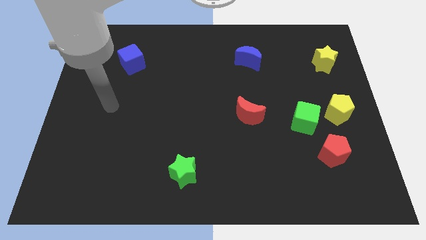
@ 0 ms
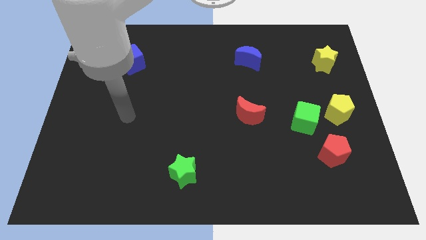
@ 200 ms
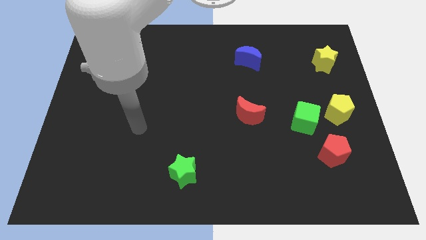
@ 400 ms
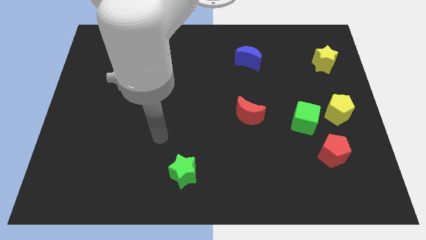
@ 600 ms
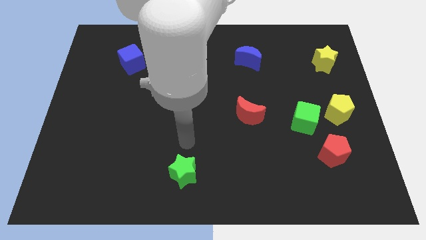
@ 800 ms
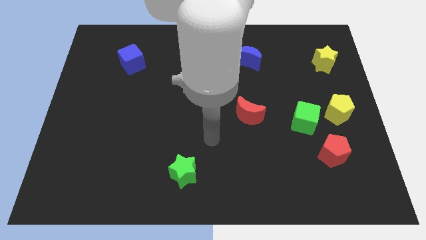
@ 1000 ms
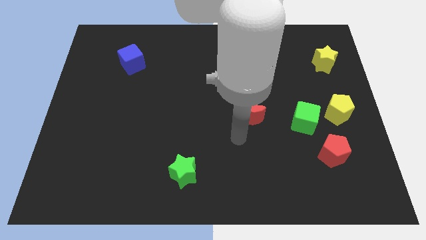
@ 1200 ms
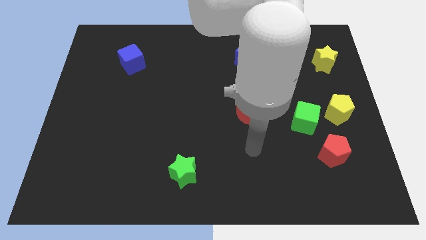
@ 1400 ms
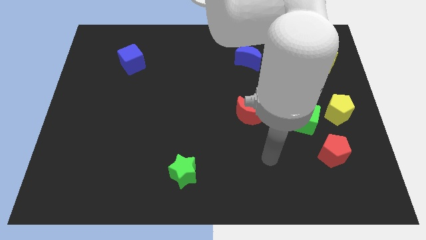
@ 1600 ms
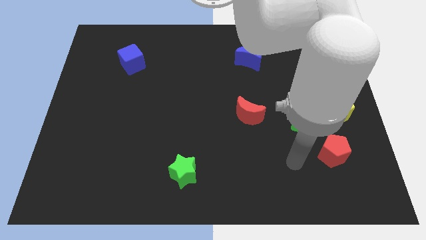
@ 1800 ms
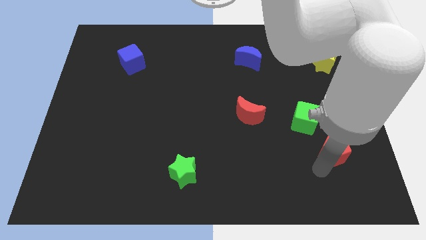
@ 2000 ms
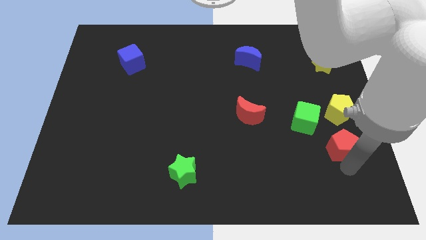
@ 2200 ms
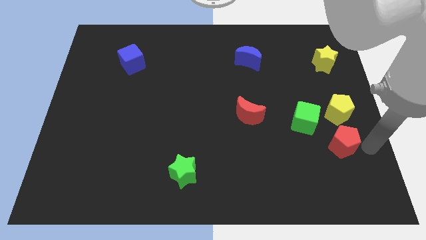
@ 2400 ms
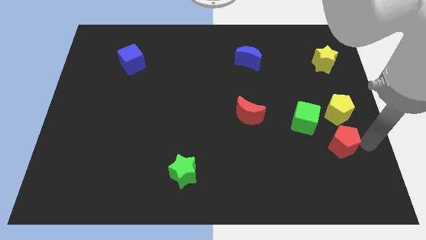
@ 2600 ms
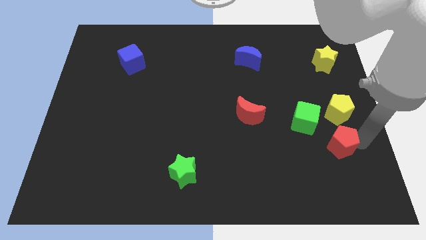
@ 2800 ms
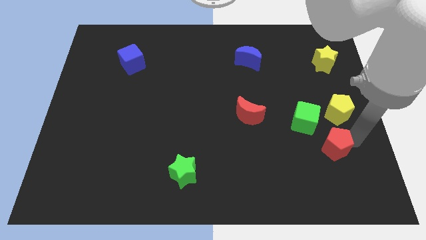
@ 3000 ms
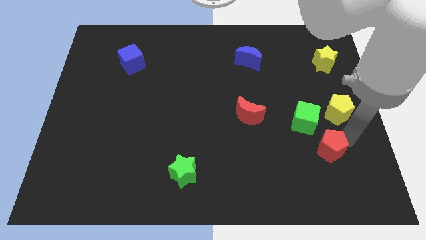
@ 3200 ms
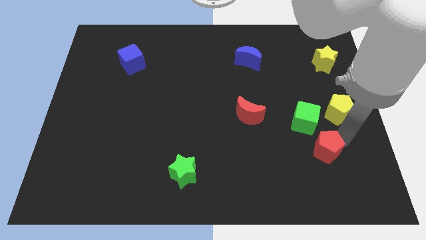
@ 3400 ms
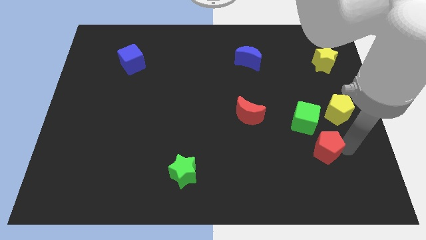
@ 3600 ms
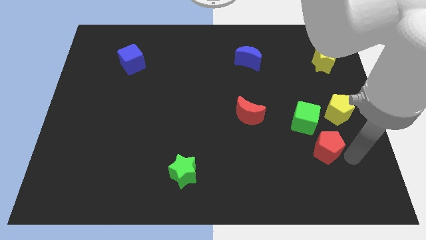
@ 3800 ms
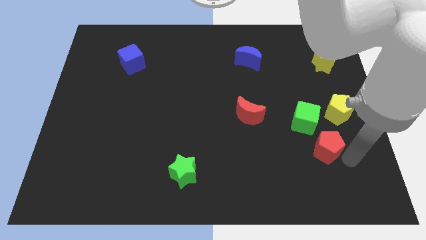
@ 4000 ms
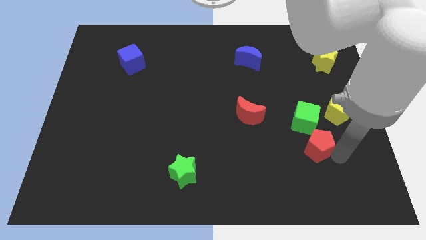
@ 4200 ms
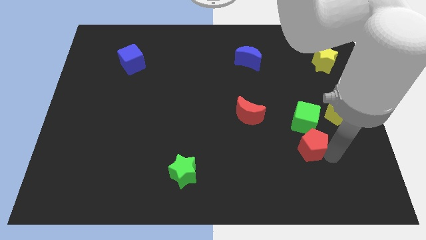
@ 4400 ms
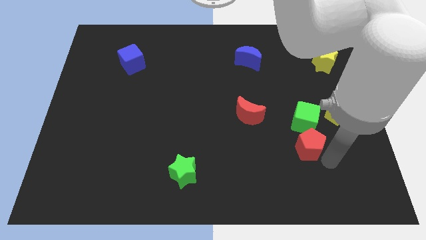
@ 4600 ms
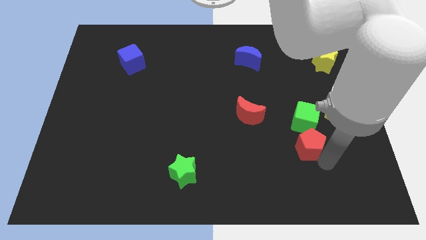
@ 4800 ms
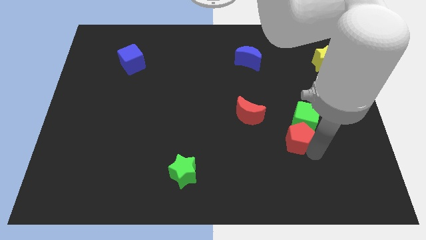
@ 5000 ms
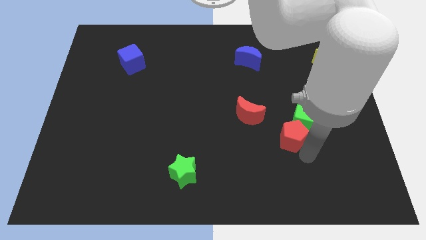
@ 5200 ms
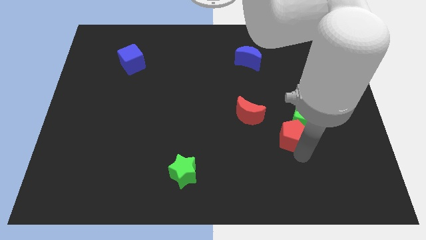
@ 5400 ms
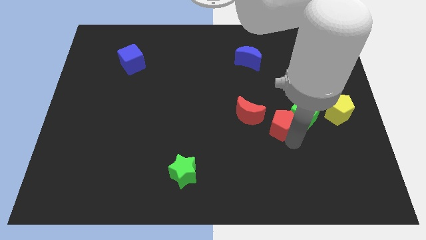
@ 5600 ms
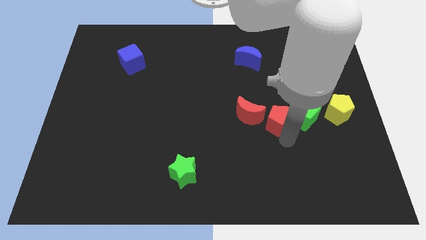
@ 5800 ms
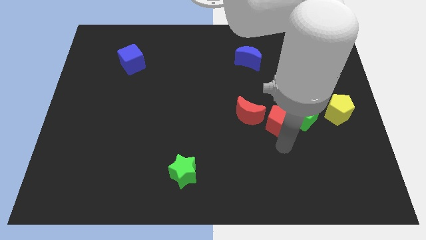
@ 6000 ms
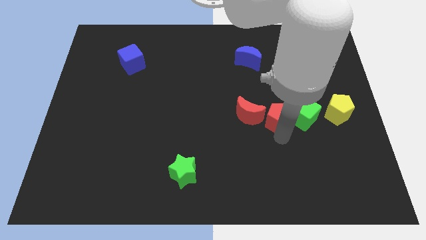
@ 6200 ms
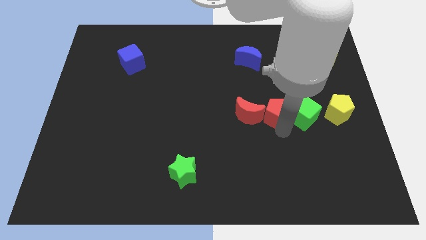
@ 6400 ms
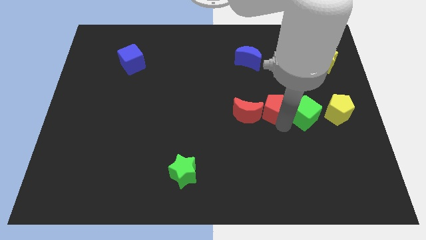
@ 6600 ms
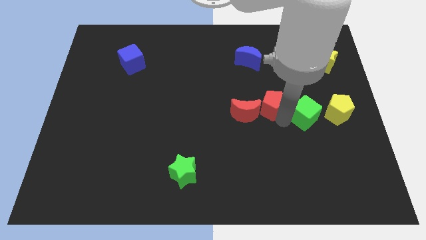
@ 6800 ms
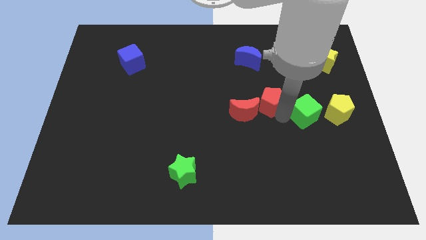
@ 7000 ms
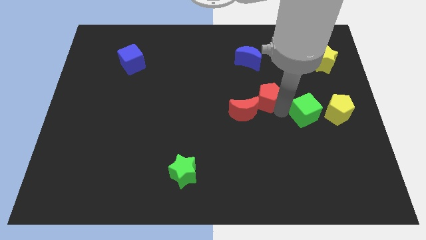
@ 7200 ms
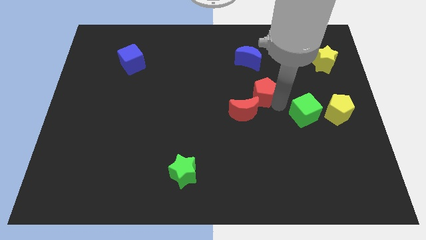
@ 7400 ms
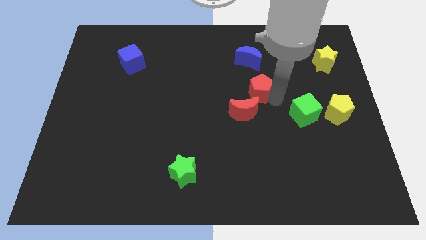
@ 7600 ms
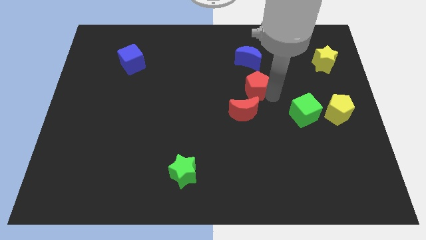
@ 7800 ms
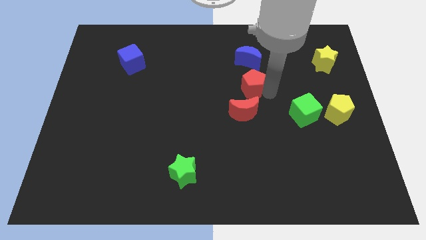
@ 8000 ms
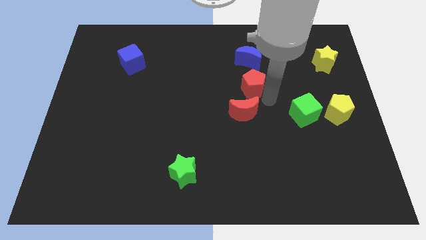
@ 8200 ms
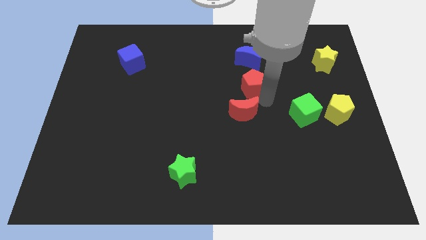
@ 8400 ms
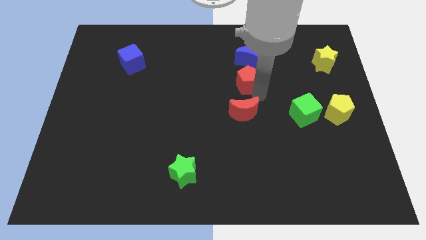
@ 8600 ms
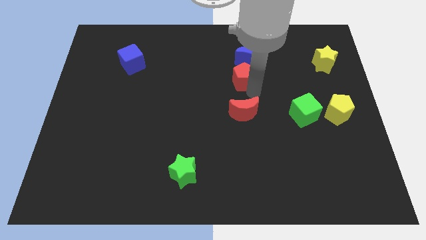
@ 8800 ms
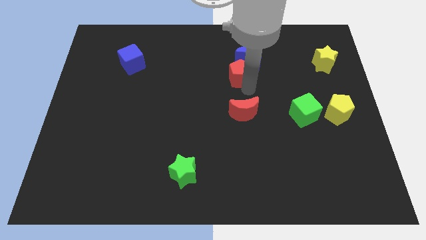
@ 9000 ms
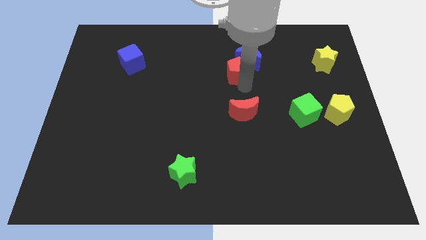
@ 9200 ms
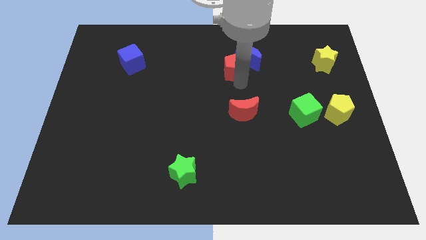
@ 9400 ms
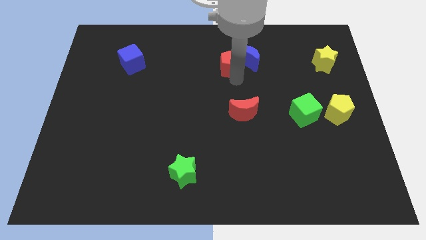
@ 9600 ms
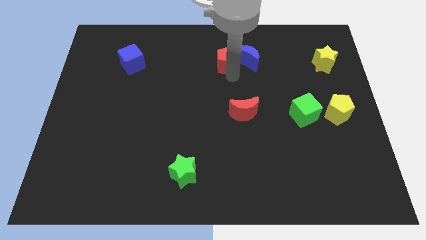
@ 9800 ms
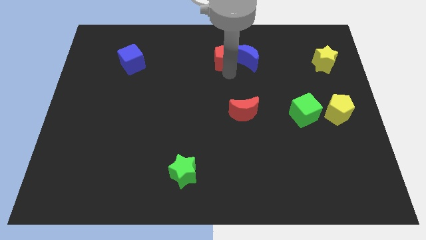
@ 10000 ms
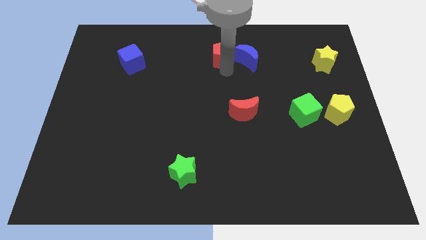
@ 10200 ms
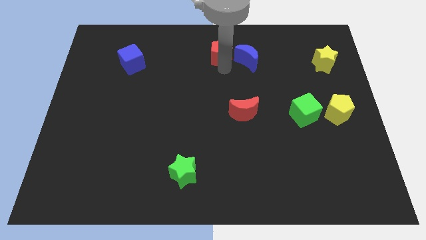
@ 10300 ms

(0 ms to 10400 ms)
push the red pentagon to the towards your base

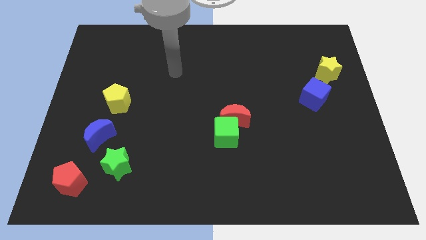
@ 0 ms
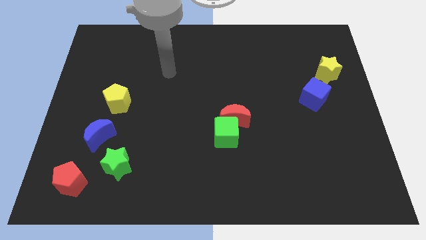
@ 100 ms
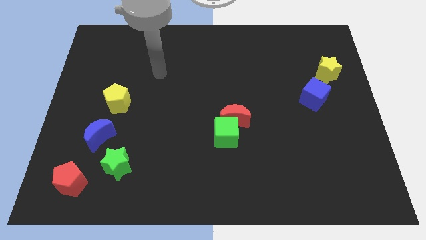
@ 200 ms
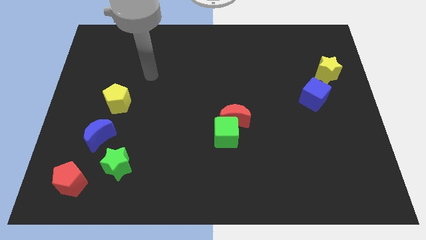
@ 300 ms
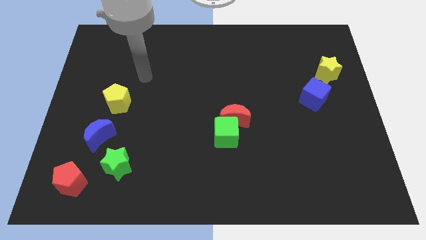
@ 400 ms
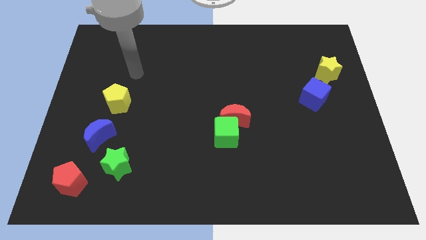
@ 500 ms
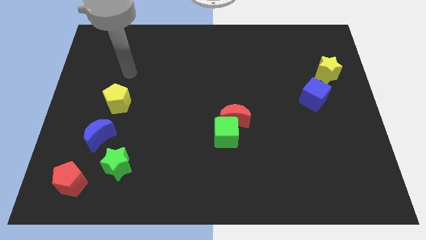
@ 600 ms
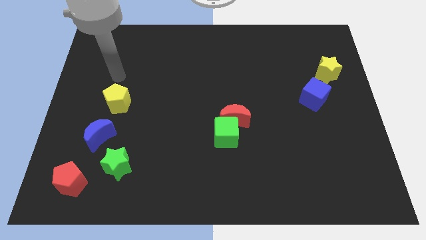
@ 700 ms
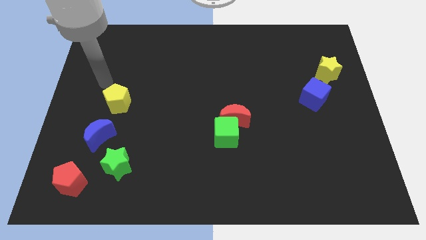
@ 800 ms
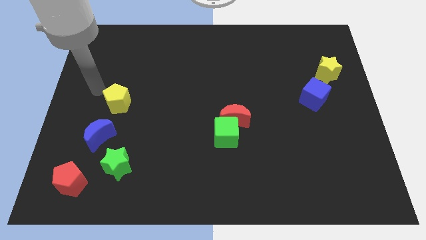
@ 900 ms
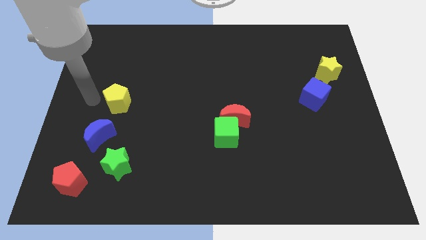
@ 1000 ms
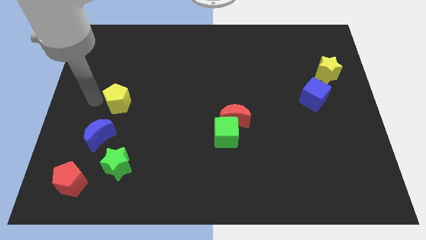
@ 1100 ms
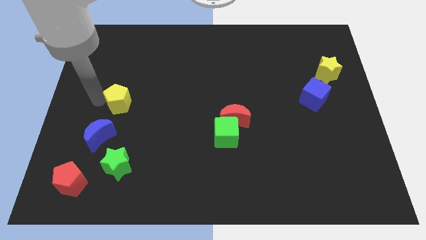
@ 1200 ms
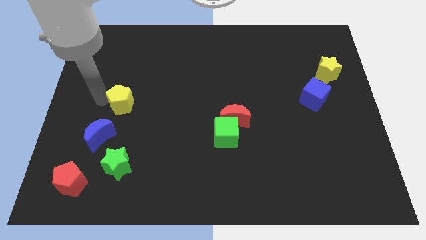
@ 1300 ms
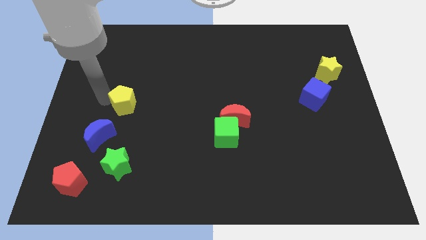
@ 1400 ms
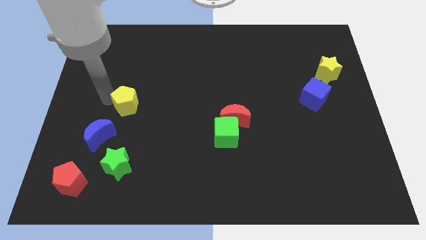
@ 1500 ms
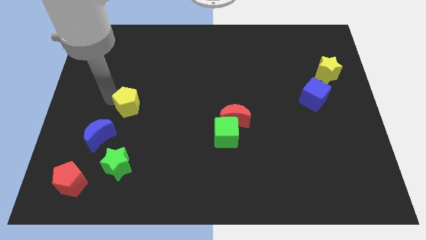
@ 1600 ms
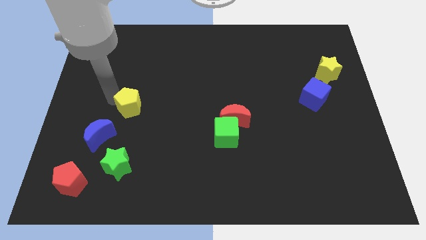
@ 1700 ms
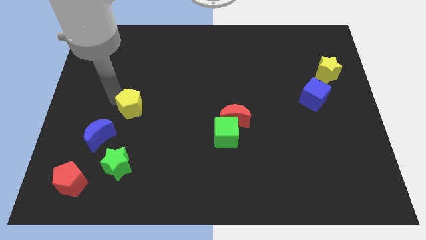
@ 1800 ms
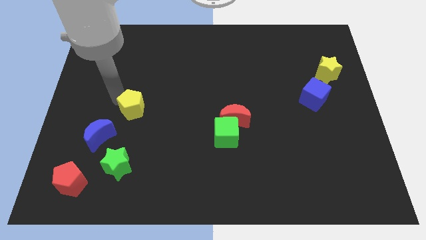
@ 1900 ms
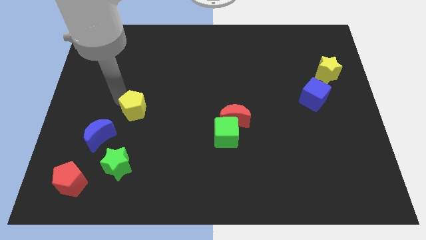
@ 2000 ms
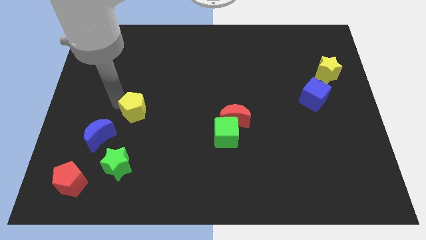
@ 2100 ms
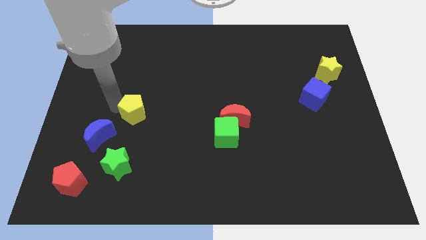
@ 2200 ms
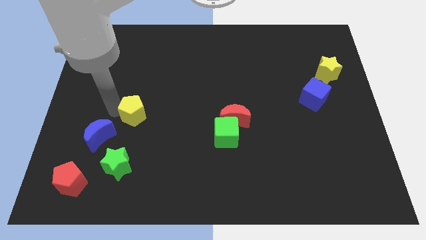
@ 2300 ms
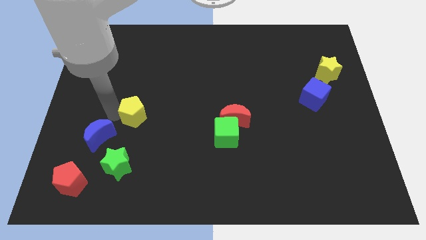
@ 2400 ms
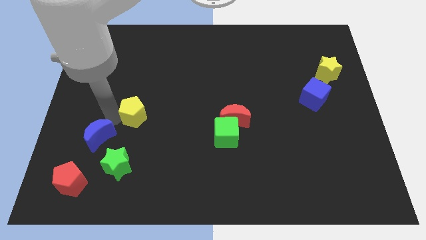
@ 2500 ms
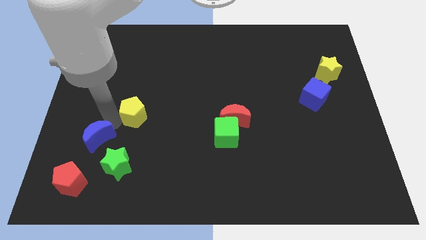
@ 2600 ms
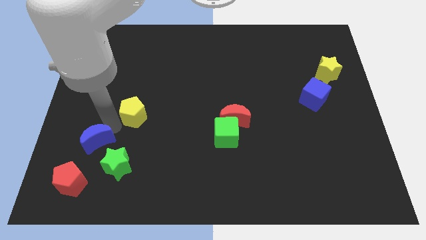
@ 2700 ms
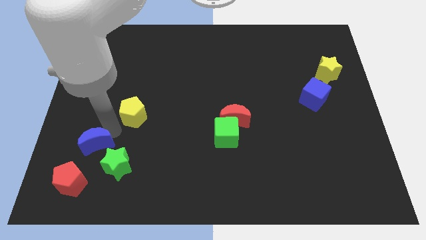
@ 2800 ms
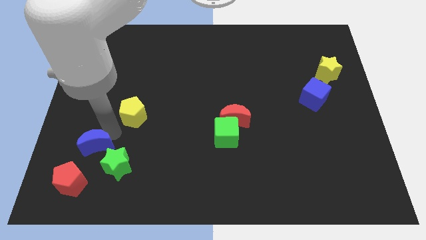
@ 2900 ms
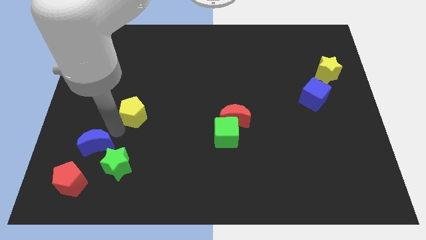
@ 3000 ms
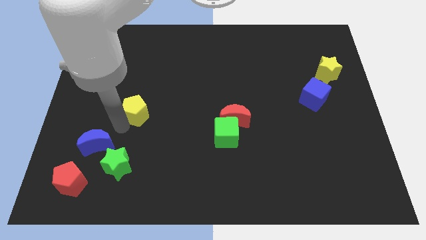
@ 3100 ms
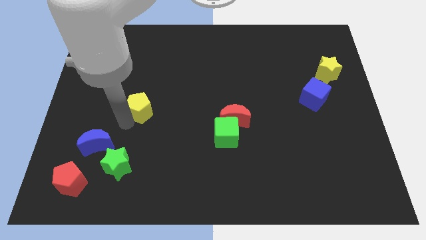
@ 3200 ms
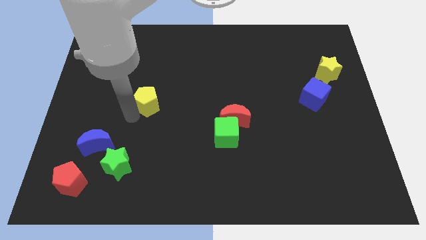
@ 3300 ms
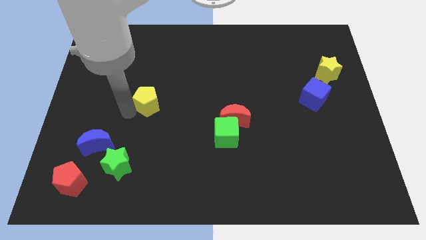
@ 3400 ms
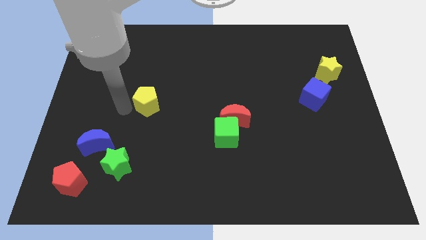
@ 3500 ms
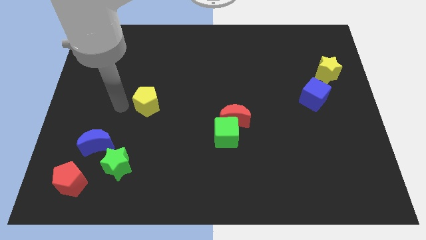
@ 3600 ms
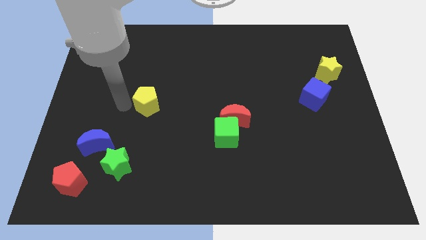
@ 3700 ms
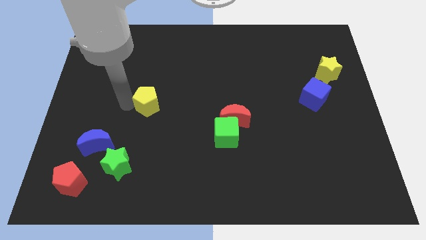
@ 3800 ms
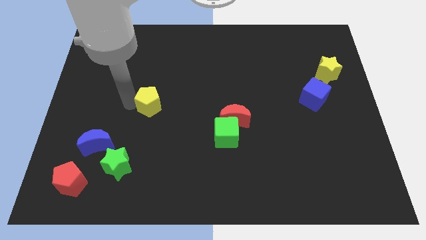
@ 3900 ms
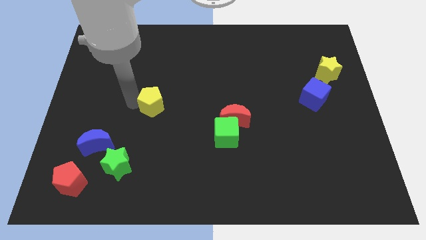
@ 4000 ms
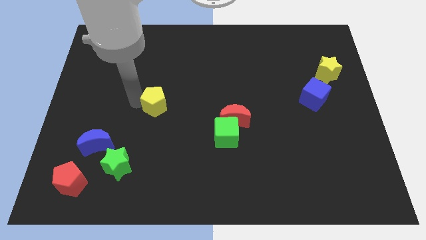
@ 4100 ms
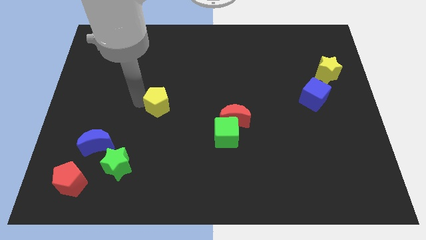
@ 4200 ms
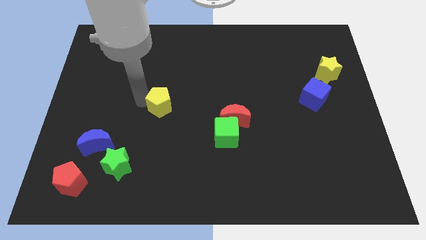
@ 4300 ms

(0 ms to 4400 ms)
push the yellow pentagon to the middle of the board
